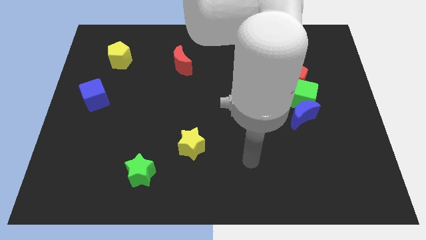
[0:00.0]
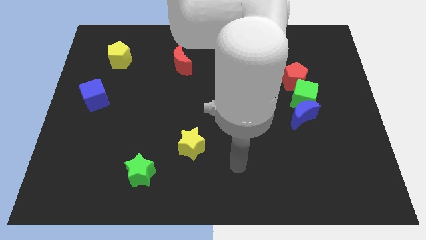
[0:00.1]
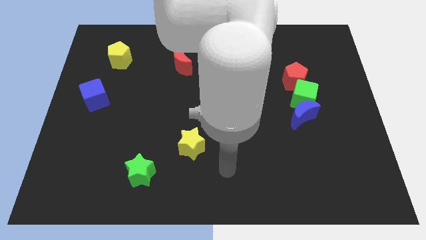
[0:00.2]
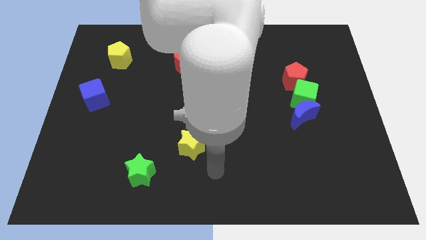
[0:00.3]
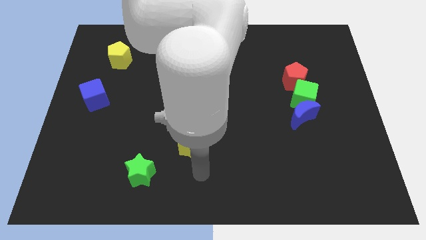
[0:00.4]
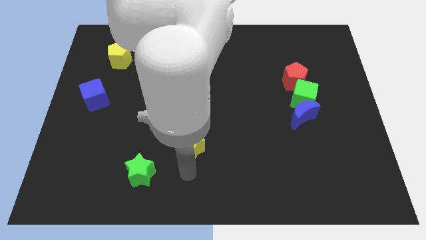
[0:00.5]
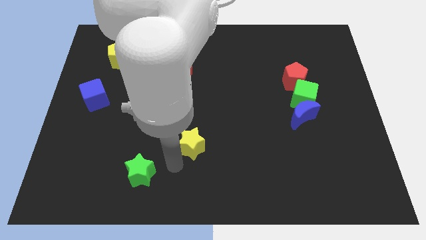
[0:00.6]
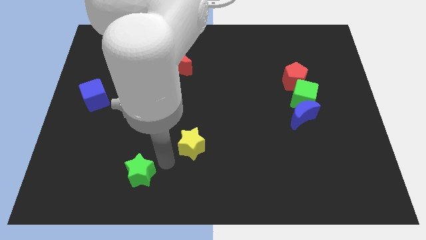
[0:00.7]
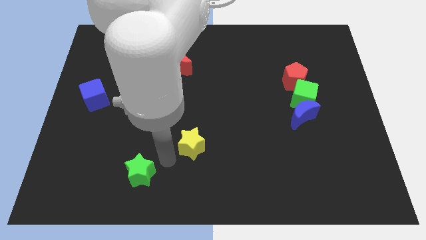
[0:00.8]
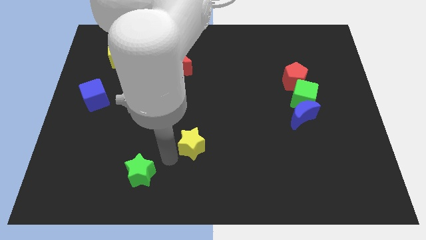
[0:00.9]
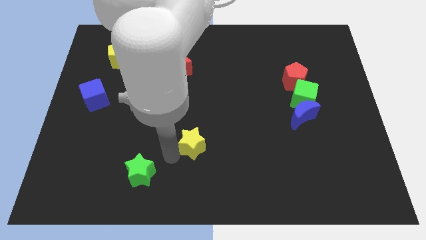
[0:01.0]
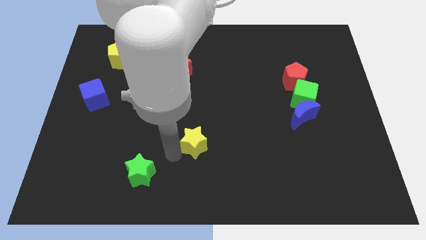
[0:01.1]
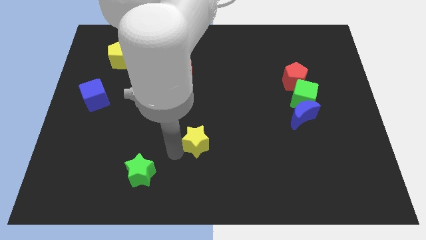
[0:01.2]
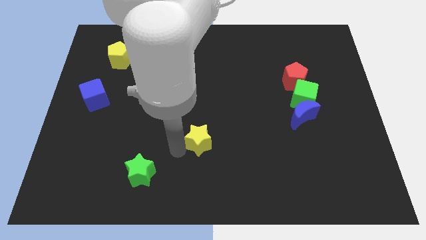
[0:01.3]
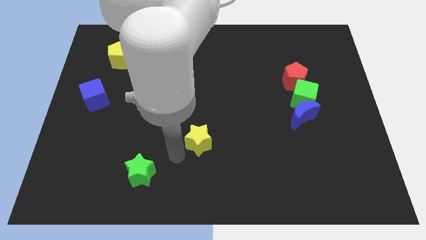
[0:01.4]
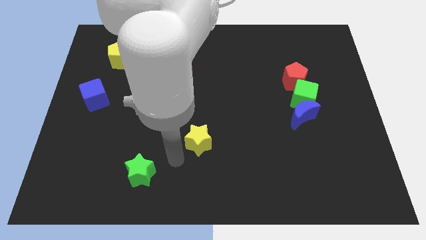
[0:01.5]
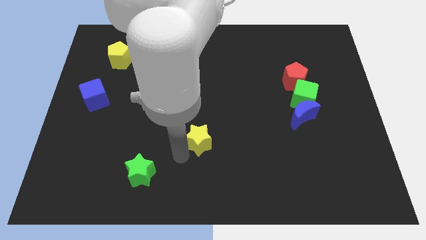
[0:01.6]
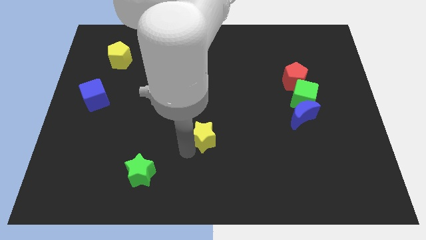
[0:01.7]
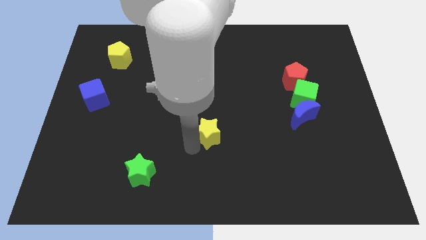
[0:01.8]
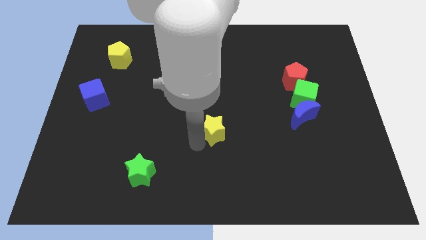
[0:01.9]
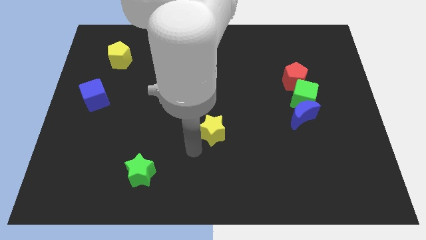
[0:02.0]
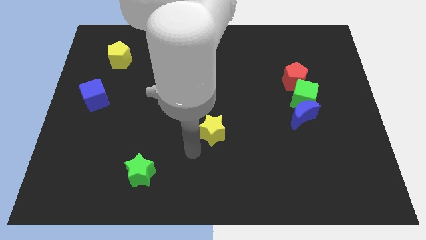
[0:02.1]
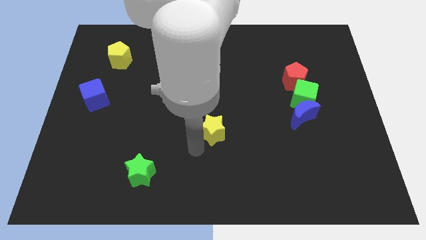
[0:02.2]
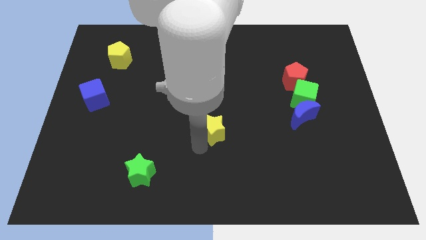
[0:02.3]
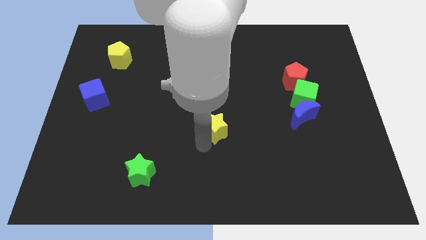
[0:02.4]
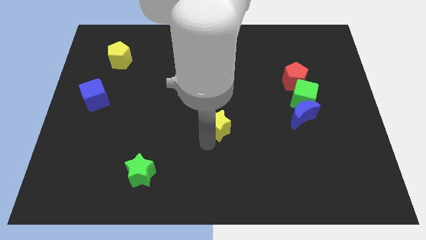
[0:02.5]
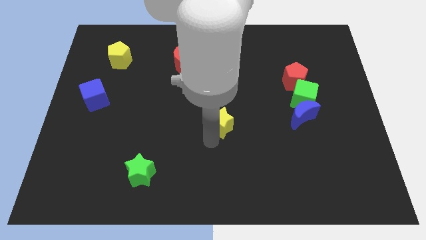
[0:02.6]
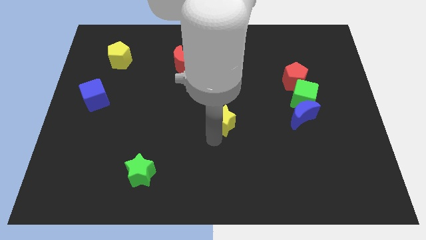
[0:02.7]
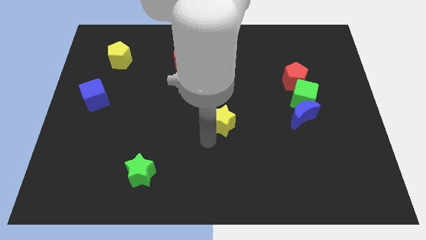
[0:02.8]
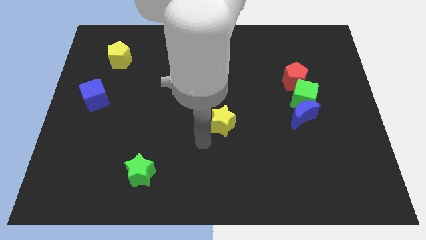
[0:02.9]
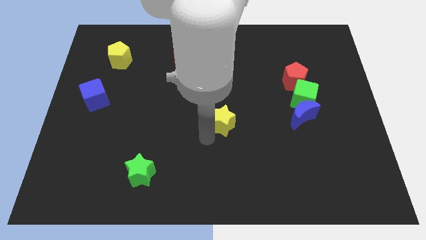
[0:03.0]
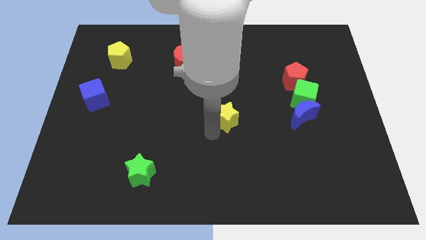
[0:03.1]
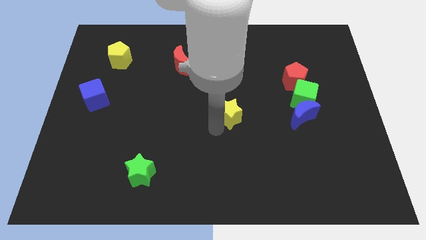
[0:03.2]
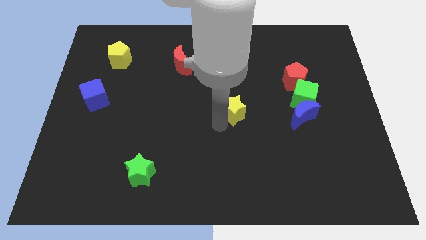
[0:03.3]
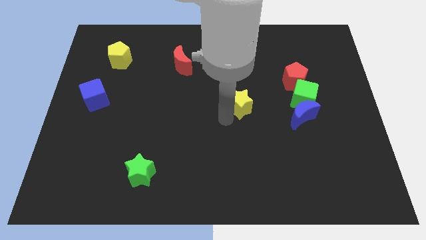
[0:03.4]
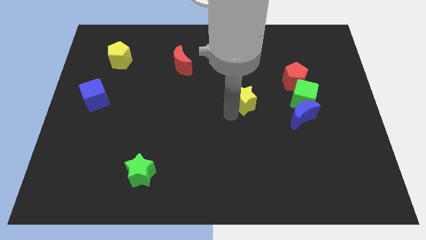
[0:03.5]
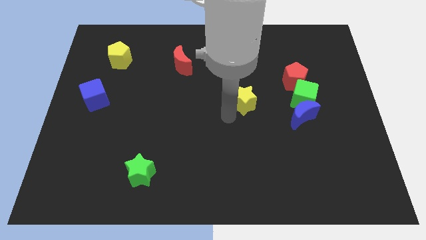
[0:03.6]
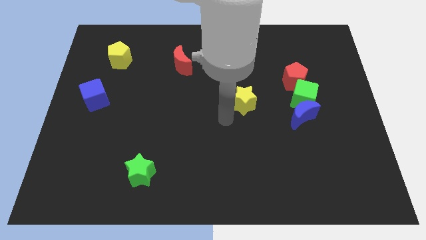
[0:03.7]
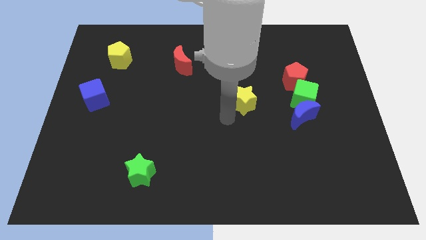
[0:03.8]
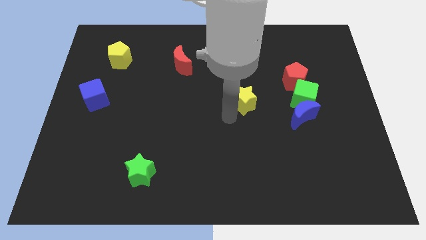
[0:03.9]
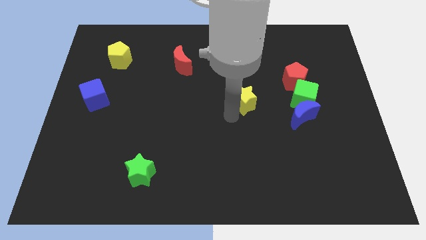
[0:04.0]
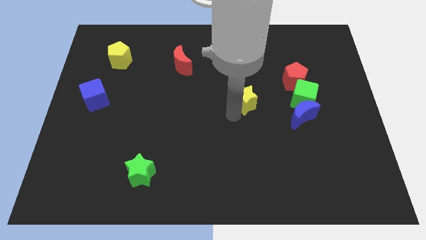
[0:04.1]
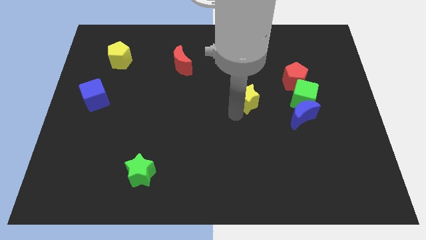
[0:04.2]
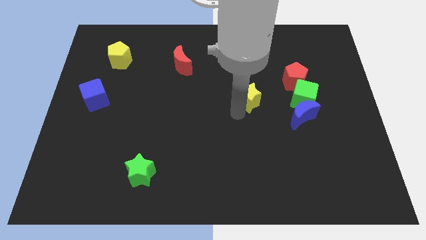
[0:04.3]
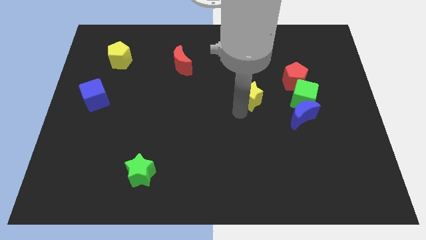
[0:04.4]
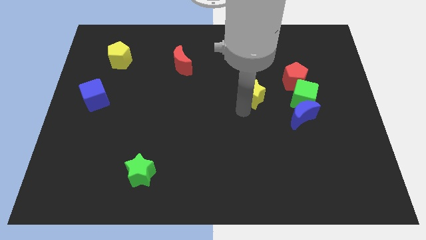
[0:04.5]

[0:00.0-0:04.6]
push the yellow star upwards and then to the right

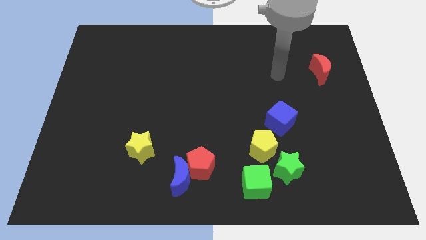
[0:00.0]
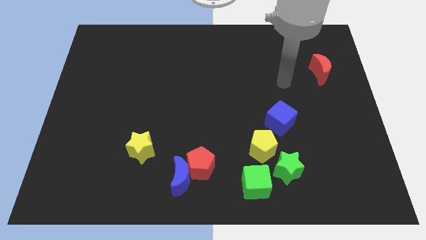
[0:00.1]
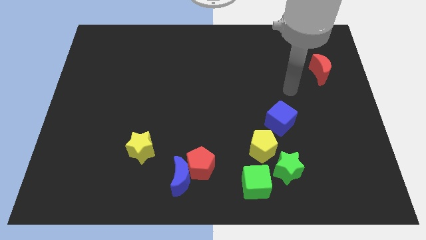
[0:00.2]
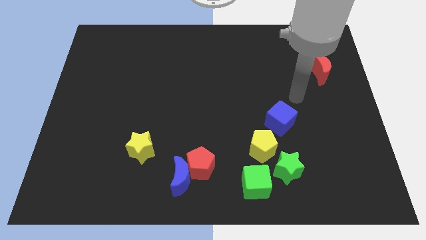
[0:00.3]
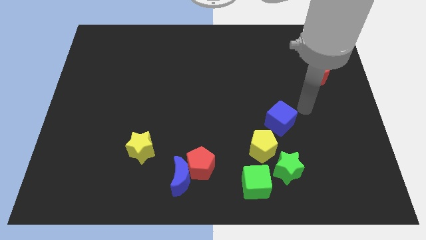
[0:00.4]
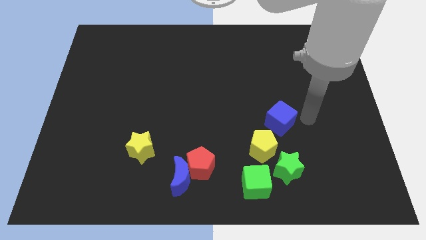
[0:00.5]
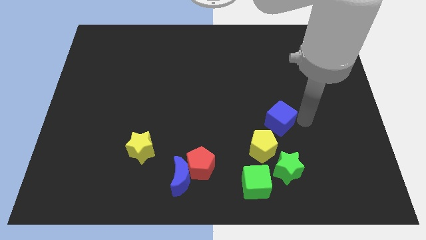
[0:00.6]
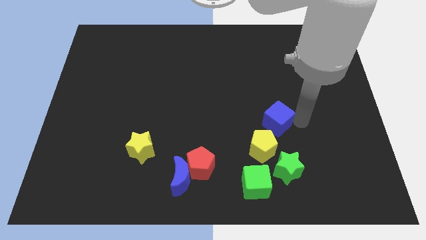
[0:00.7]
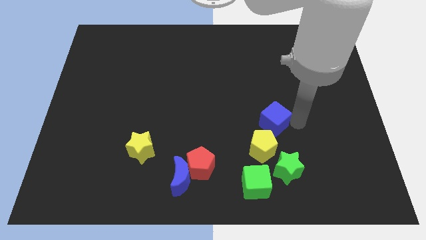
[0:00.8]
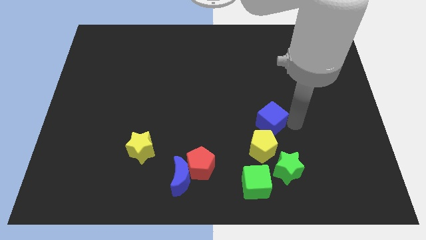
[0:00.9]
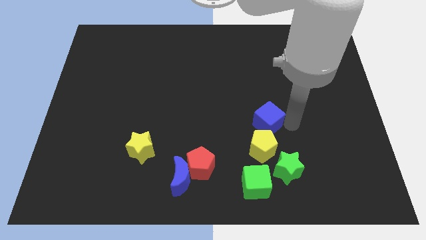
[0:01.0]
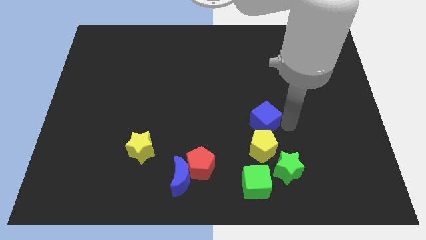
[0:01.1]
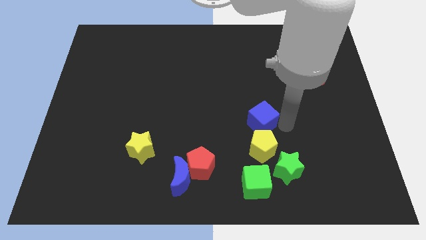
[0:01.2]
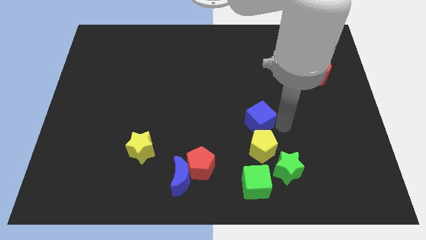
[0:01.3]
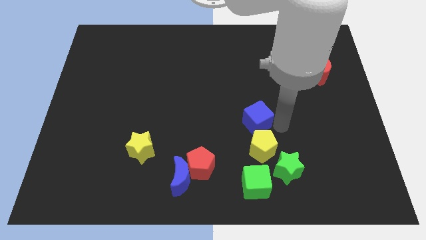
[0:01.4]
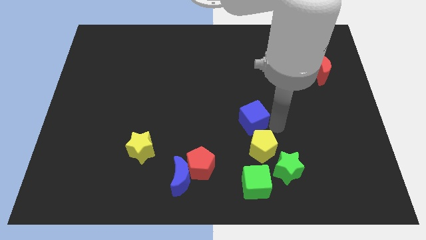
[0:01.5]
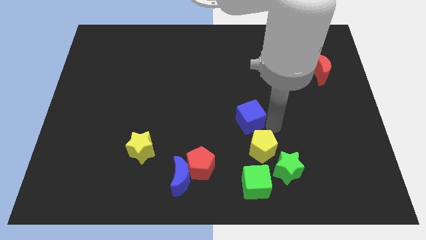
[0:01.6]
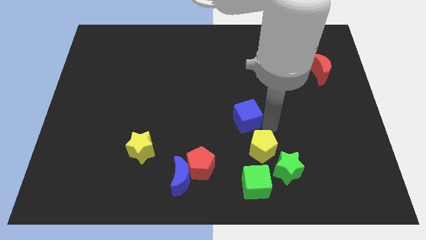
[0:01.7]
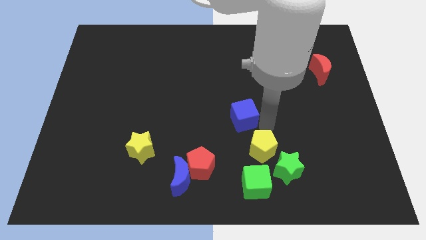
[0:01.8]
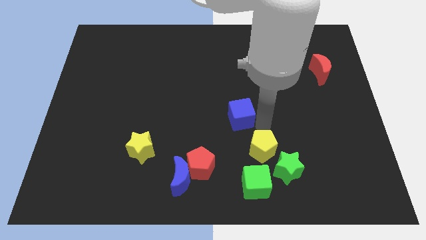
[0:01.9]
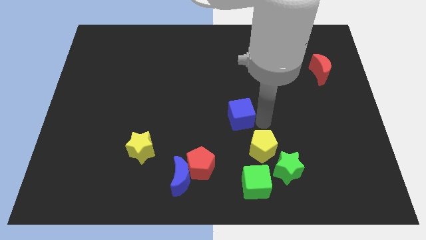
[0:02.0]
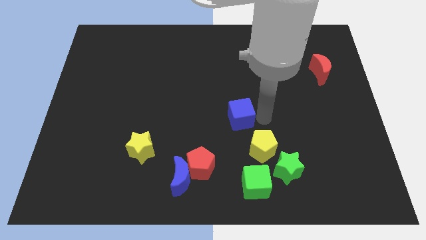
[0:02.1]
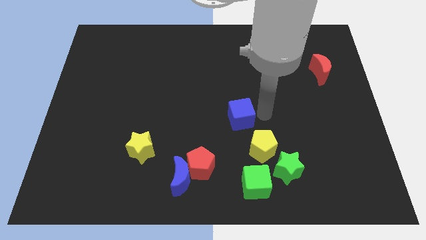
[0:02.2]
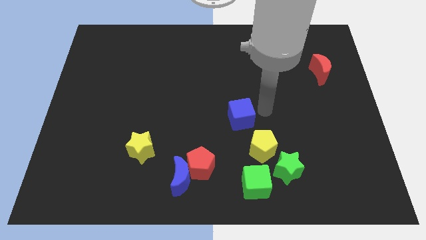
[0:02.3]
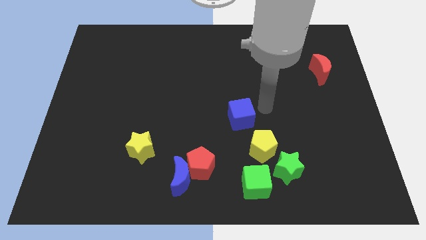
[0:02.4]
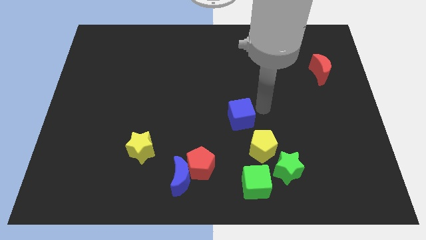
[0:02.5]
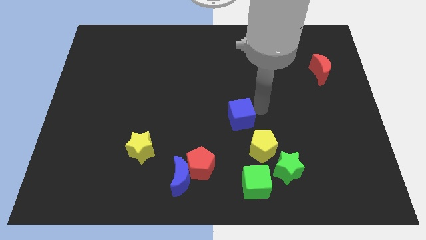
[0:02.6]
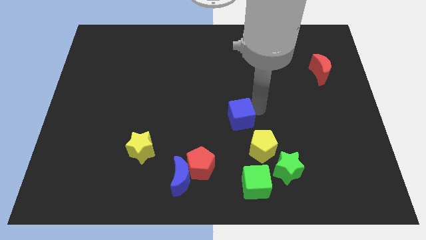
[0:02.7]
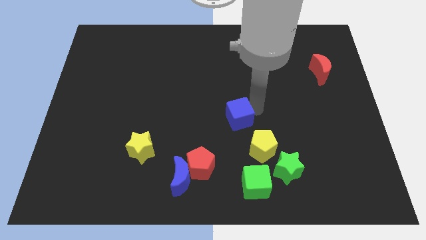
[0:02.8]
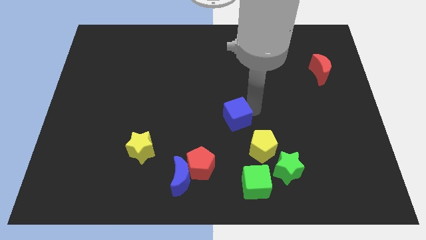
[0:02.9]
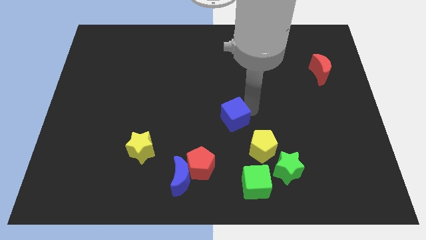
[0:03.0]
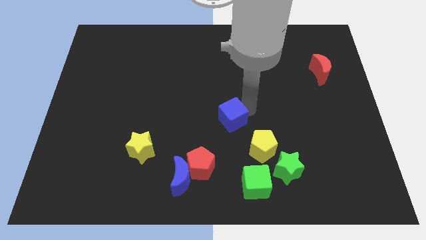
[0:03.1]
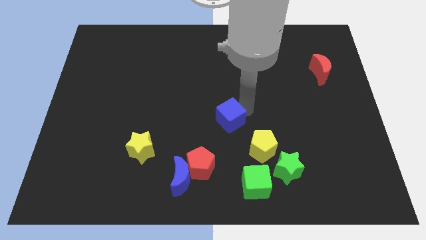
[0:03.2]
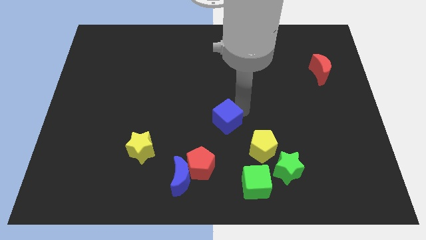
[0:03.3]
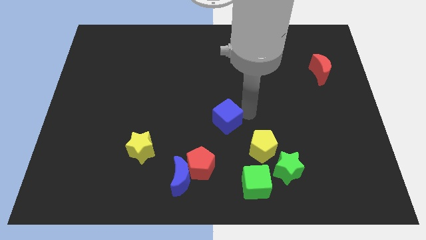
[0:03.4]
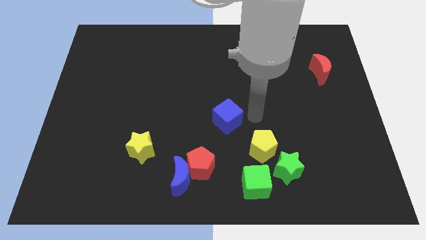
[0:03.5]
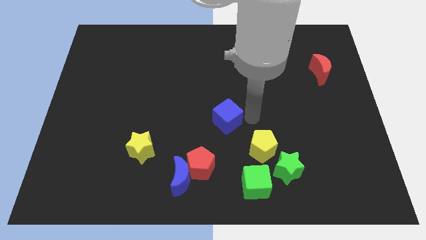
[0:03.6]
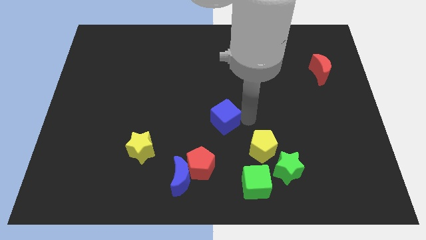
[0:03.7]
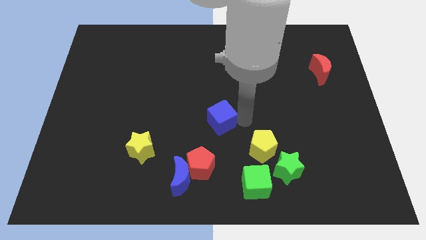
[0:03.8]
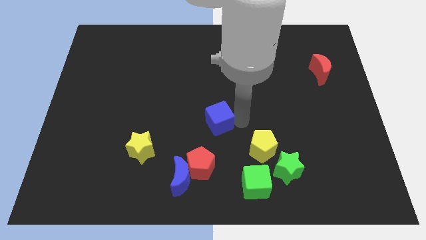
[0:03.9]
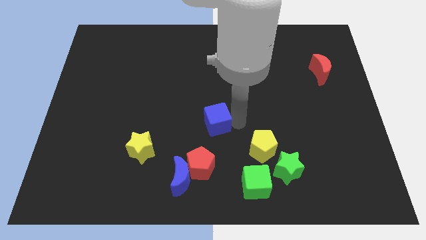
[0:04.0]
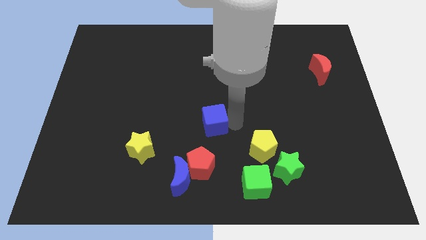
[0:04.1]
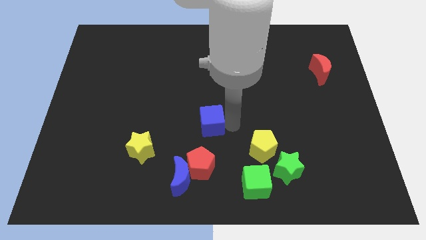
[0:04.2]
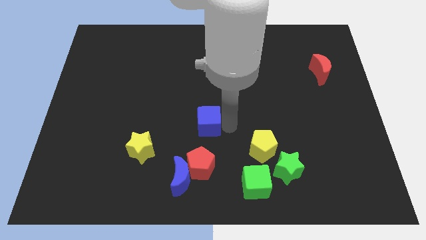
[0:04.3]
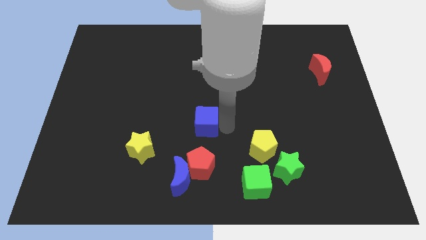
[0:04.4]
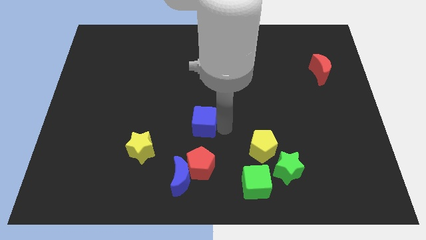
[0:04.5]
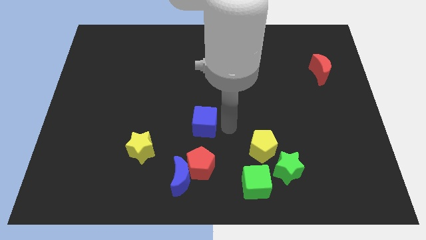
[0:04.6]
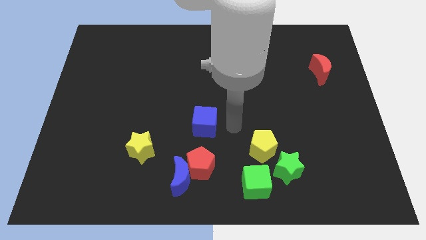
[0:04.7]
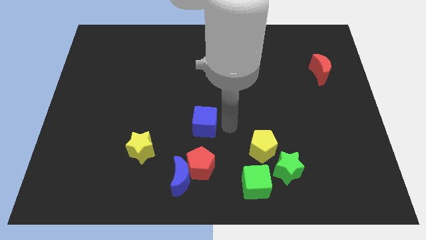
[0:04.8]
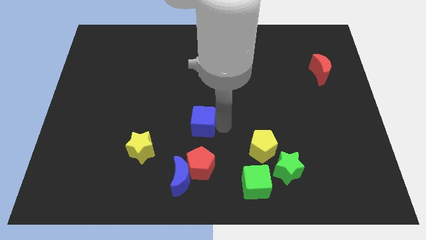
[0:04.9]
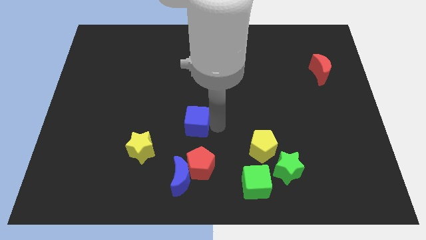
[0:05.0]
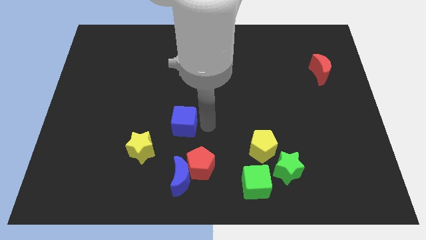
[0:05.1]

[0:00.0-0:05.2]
slide the blue cube left
